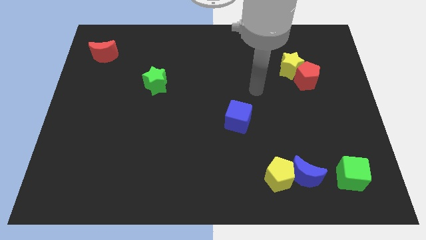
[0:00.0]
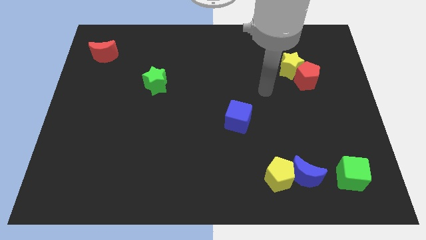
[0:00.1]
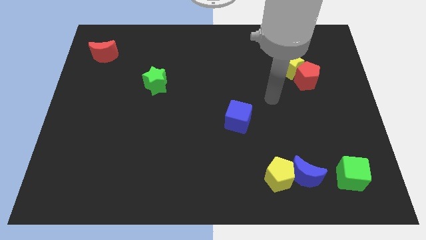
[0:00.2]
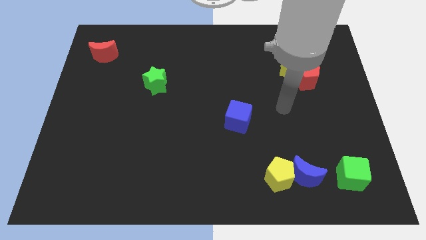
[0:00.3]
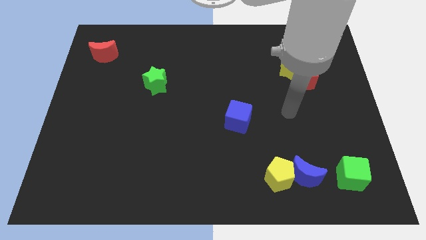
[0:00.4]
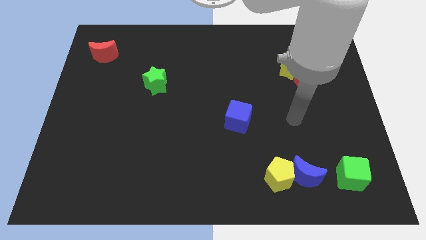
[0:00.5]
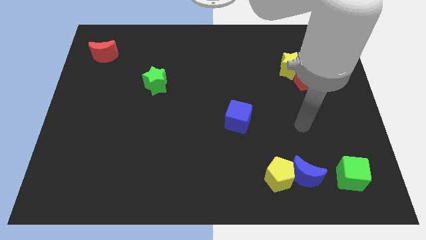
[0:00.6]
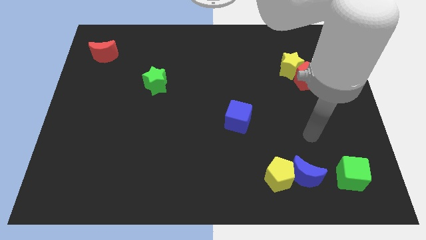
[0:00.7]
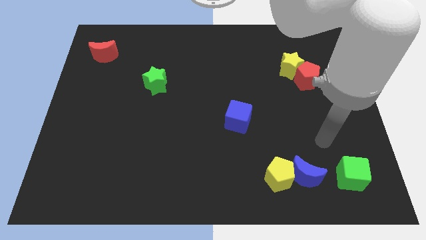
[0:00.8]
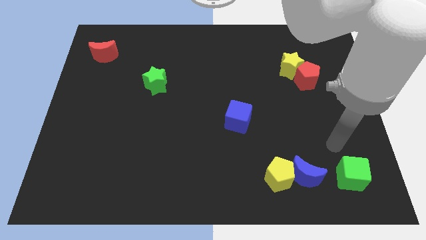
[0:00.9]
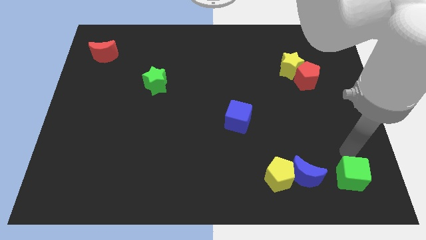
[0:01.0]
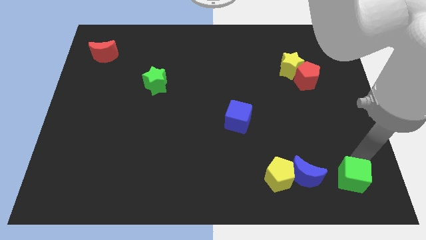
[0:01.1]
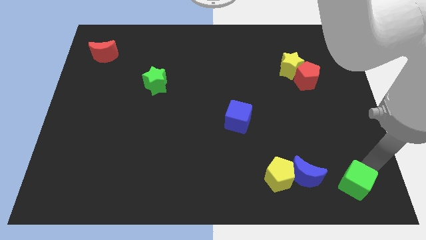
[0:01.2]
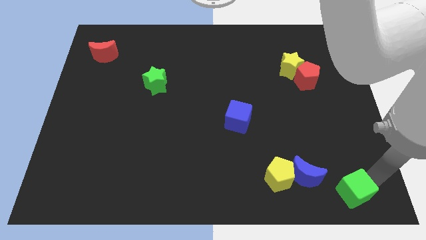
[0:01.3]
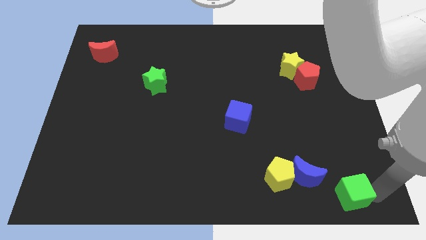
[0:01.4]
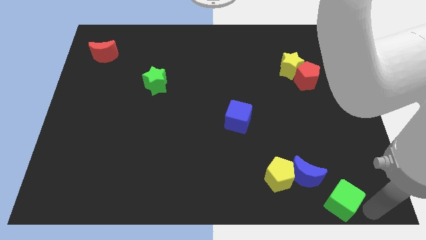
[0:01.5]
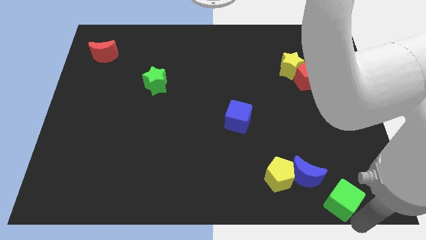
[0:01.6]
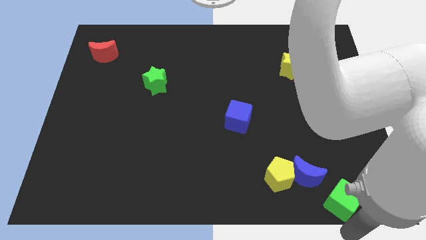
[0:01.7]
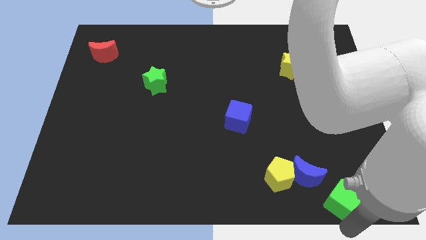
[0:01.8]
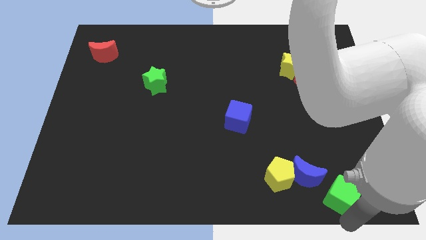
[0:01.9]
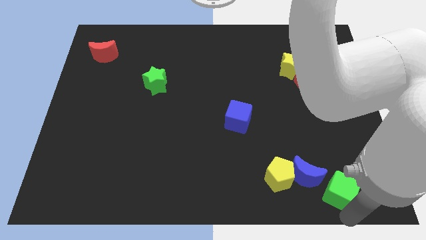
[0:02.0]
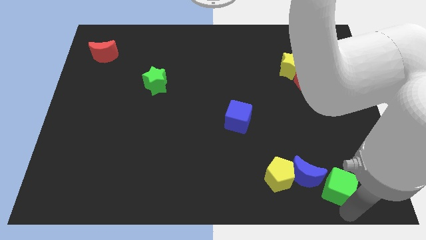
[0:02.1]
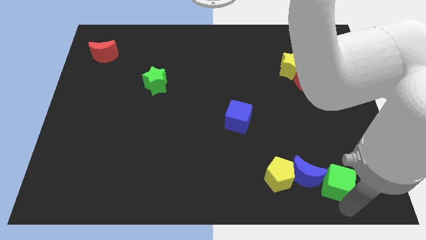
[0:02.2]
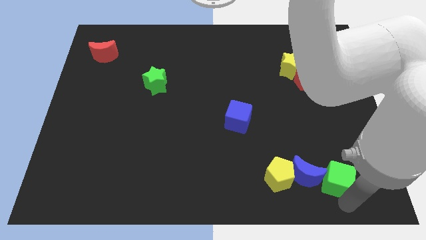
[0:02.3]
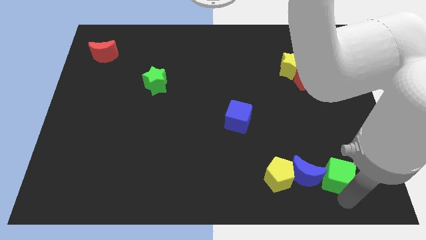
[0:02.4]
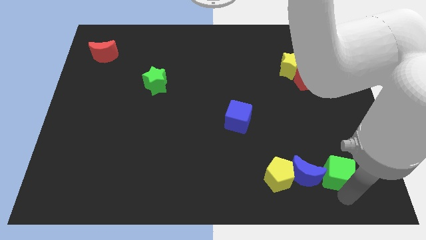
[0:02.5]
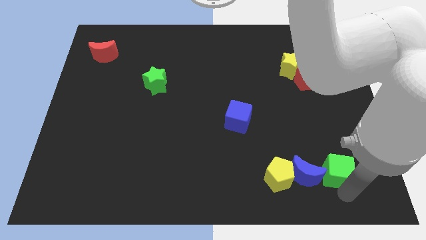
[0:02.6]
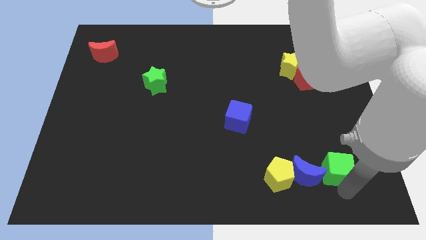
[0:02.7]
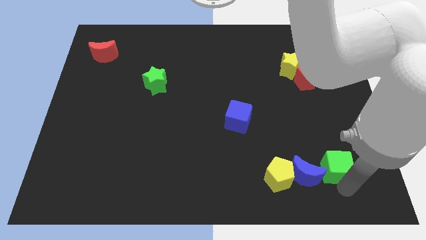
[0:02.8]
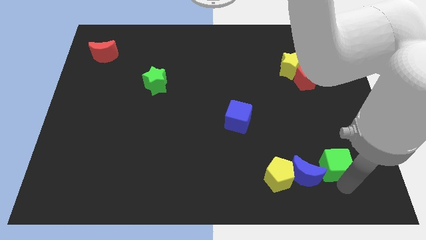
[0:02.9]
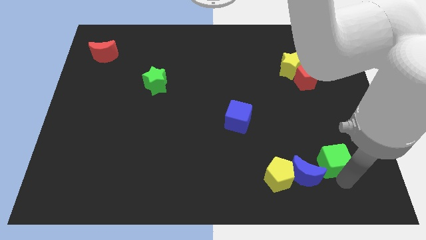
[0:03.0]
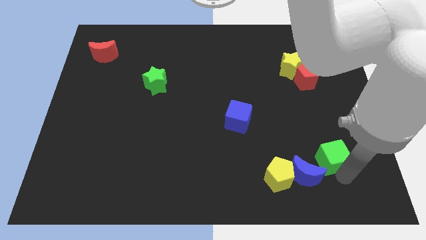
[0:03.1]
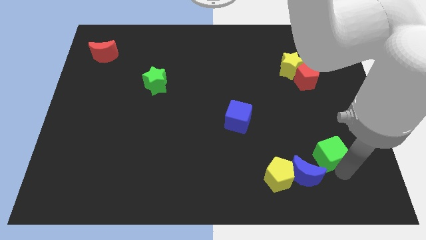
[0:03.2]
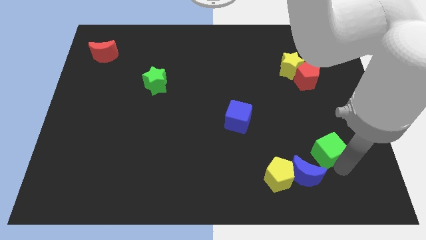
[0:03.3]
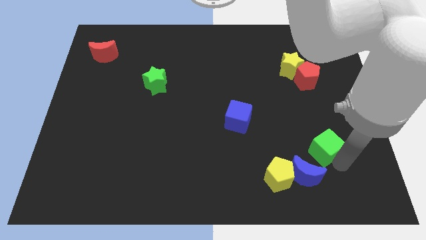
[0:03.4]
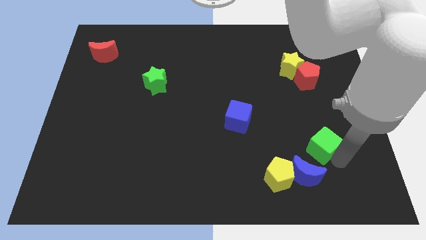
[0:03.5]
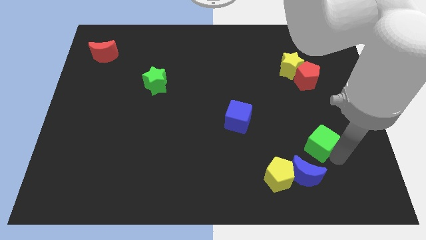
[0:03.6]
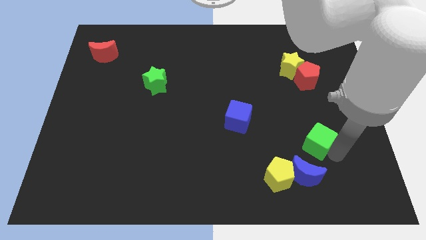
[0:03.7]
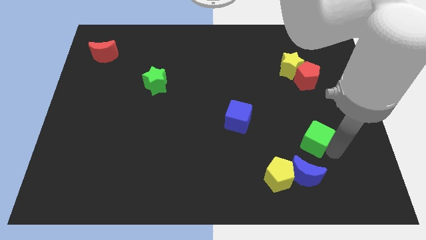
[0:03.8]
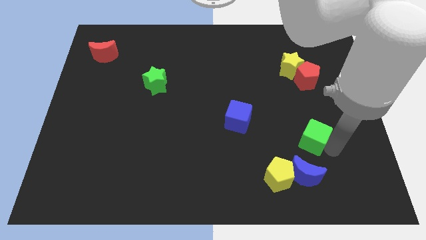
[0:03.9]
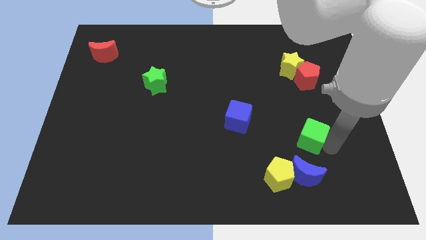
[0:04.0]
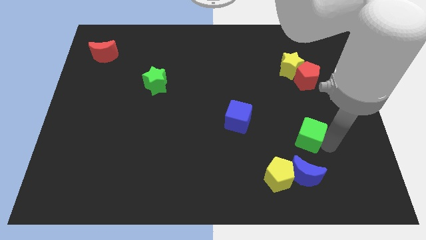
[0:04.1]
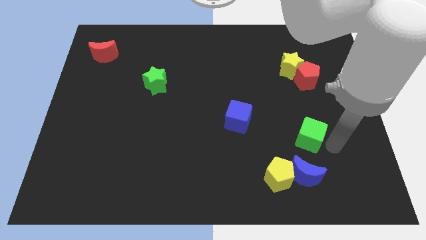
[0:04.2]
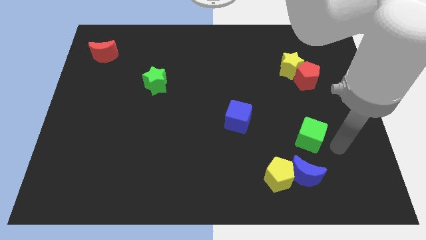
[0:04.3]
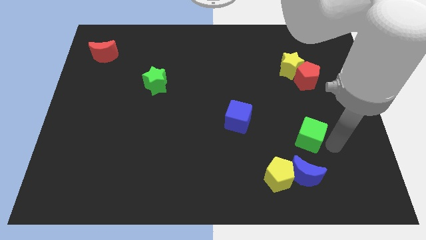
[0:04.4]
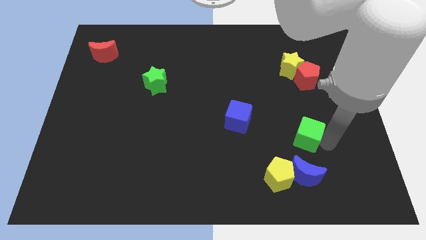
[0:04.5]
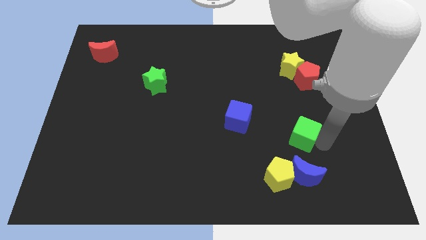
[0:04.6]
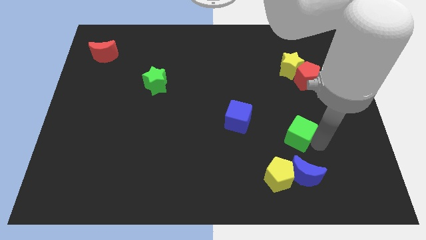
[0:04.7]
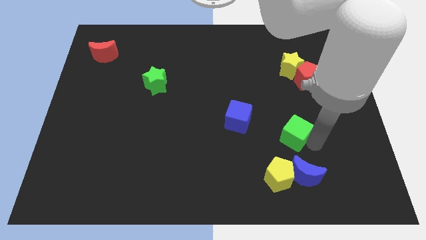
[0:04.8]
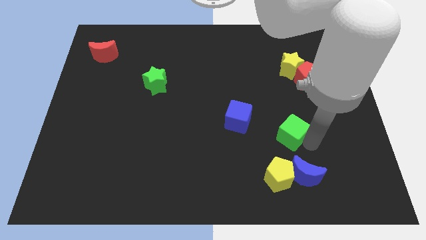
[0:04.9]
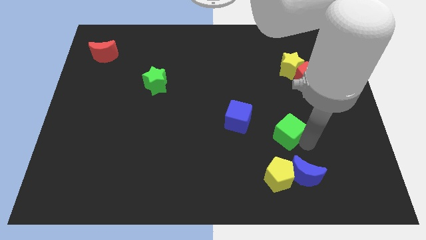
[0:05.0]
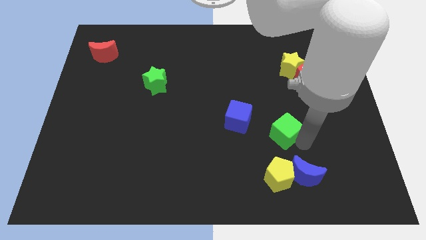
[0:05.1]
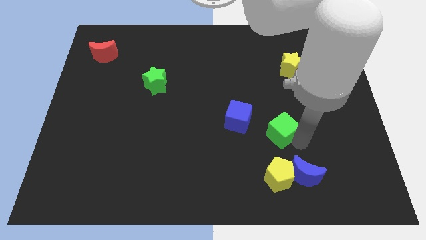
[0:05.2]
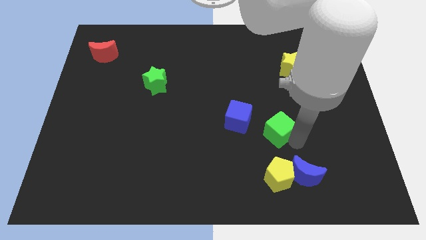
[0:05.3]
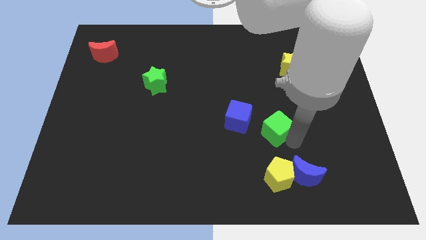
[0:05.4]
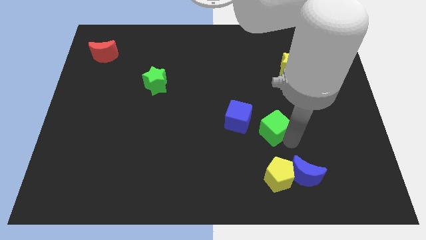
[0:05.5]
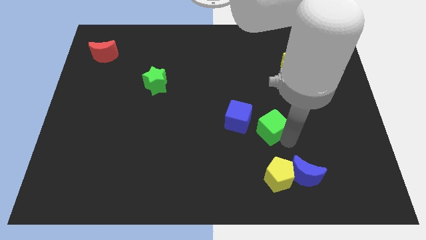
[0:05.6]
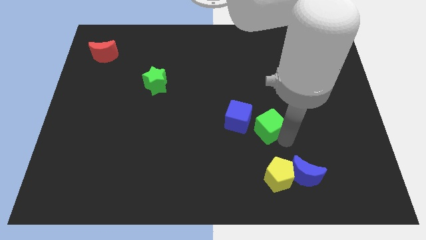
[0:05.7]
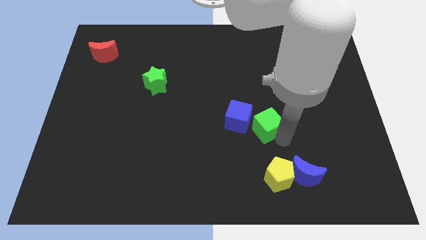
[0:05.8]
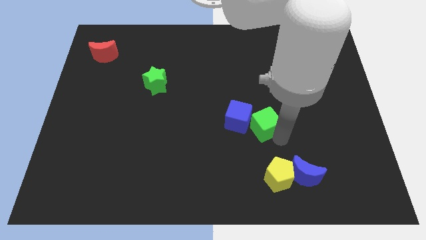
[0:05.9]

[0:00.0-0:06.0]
push the green cube upwards and left diagonally

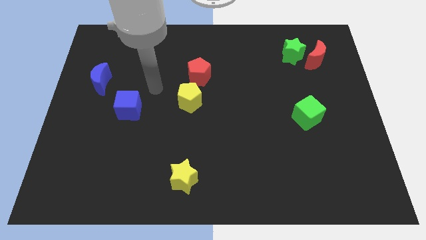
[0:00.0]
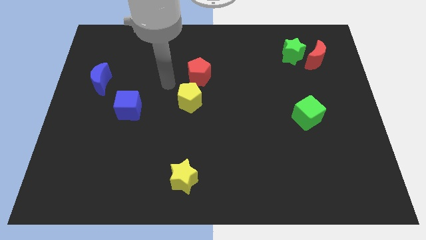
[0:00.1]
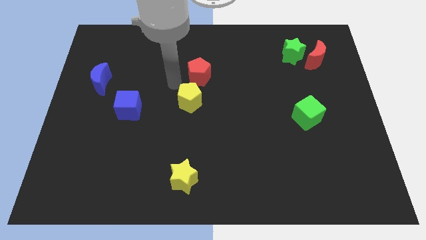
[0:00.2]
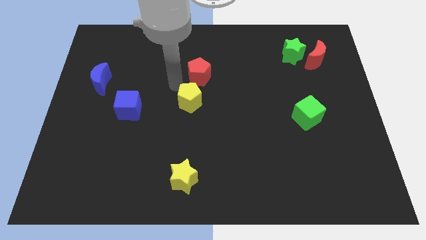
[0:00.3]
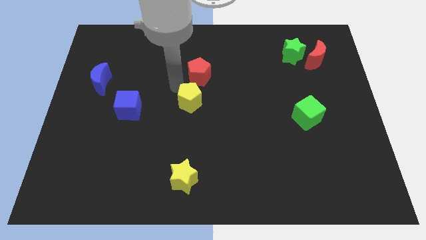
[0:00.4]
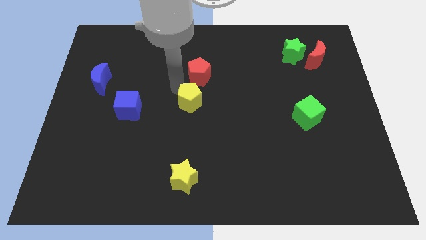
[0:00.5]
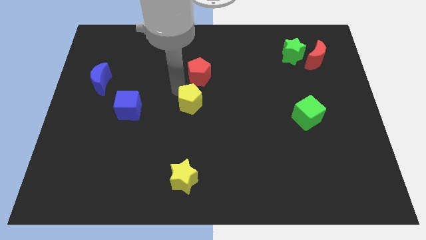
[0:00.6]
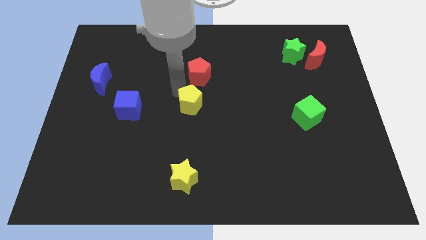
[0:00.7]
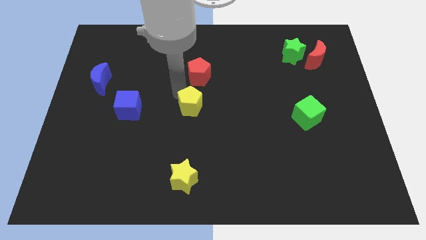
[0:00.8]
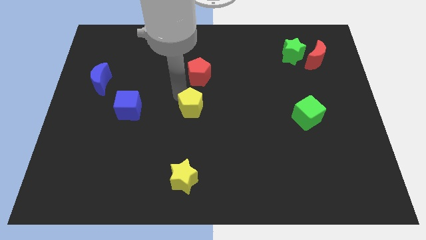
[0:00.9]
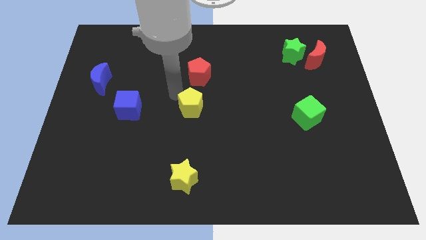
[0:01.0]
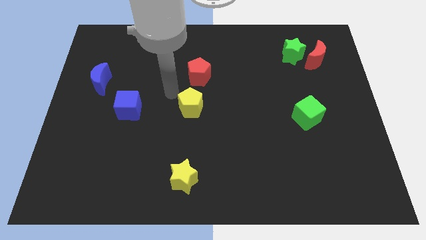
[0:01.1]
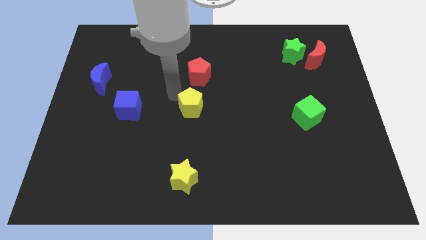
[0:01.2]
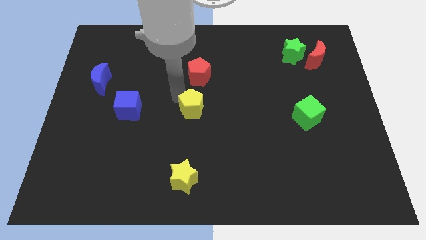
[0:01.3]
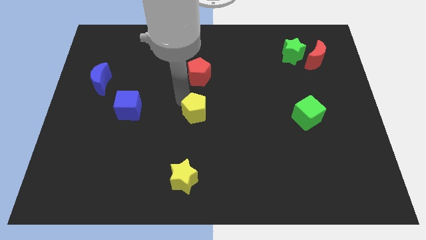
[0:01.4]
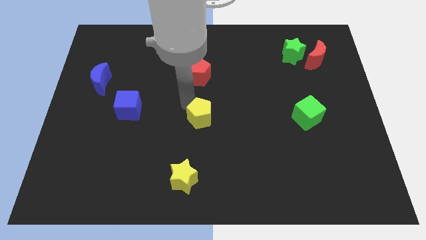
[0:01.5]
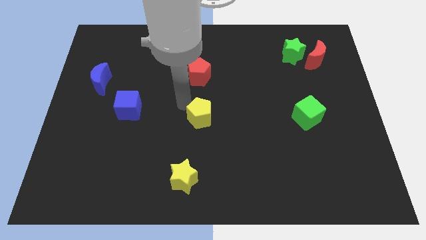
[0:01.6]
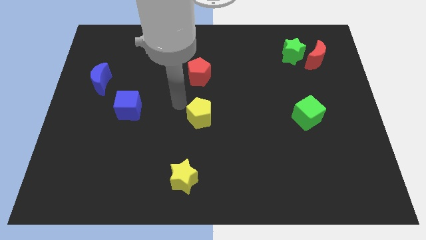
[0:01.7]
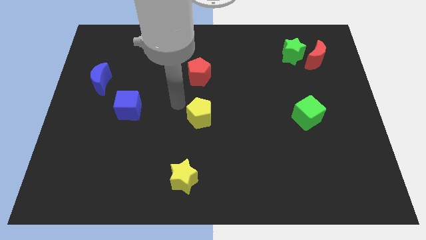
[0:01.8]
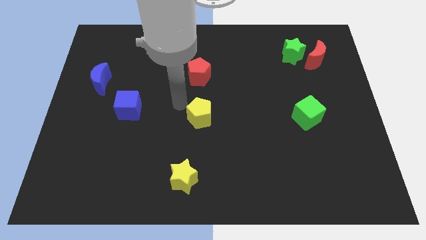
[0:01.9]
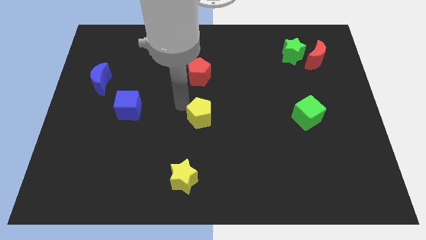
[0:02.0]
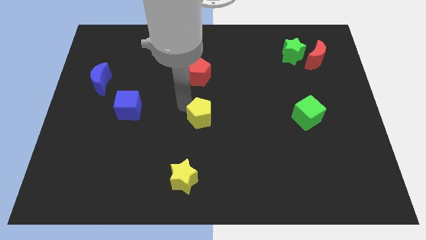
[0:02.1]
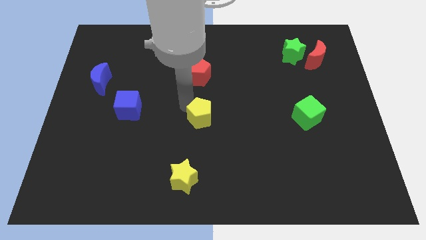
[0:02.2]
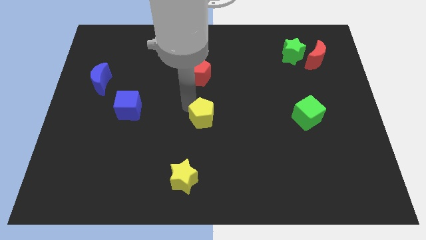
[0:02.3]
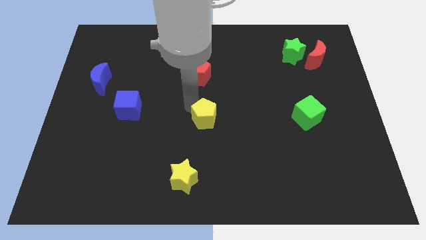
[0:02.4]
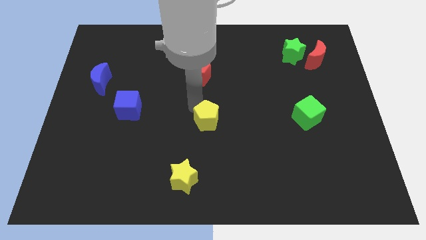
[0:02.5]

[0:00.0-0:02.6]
slide the yellow pentagon downwards and right diagonally a little
